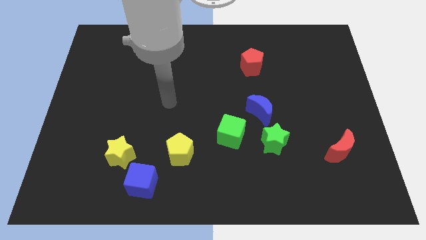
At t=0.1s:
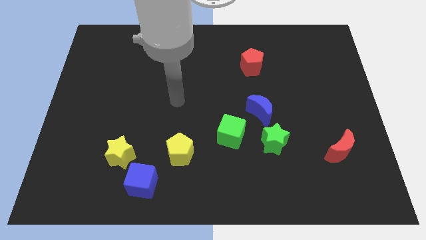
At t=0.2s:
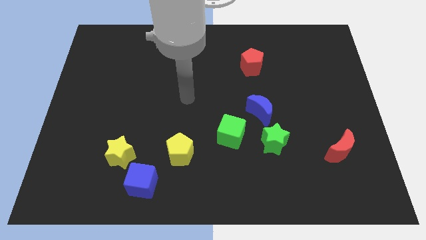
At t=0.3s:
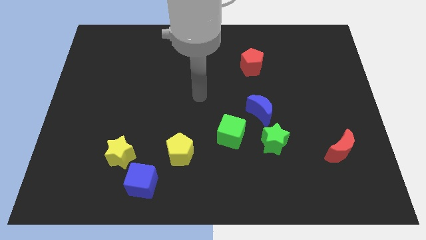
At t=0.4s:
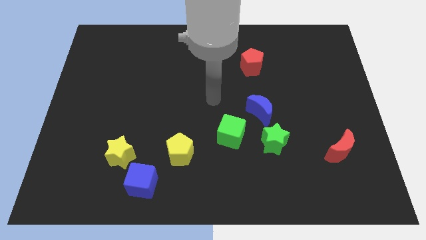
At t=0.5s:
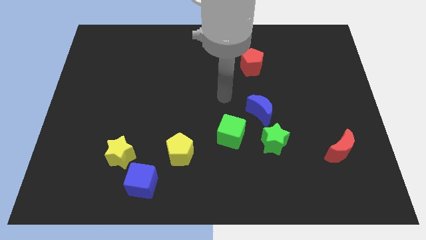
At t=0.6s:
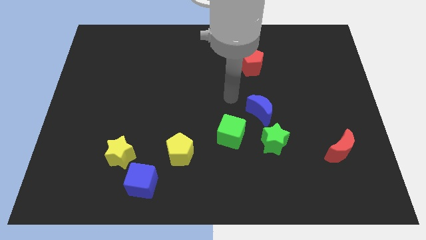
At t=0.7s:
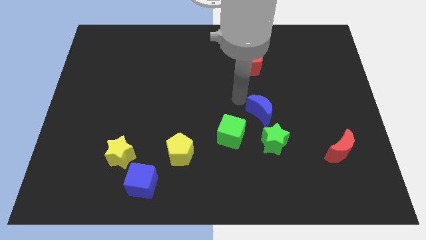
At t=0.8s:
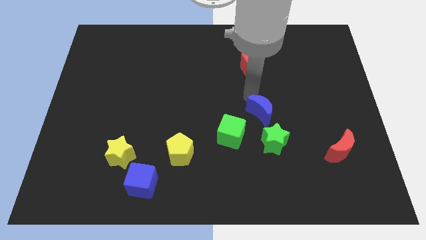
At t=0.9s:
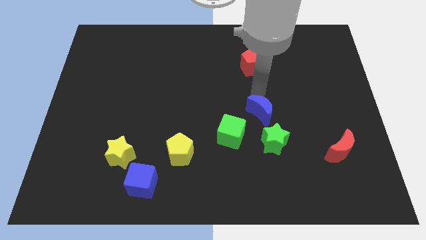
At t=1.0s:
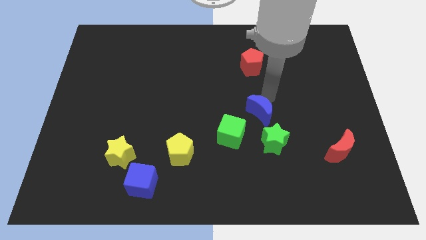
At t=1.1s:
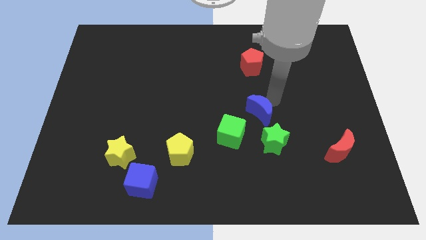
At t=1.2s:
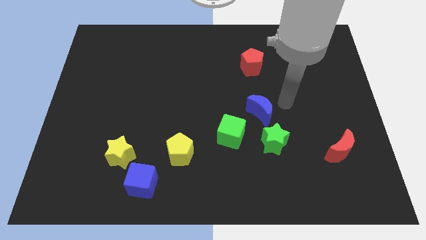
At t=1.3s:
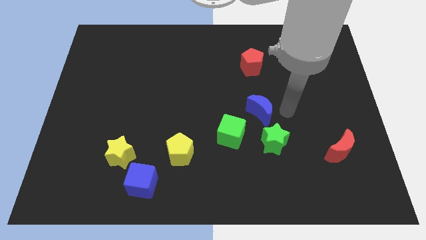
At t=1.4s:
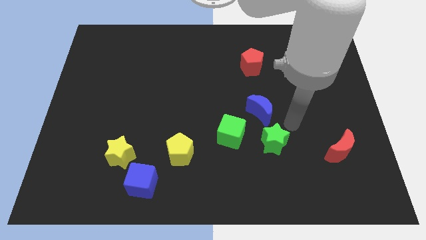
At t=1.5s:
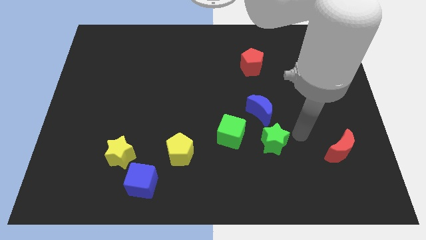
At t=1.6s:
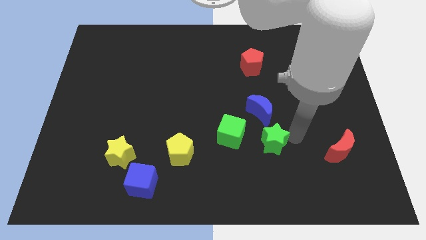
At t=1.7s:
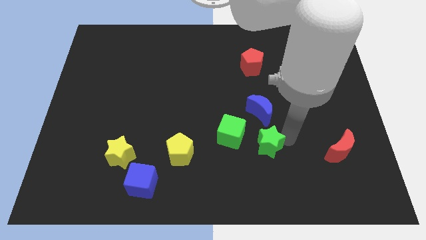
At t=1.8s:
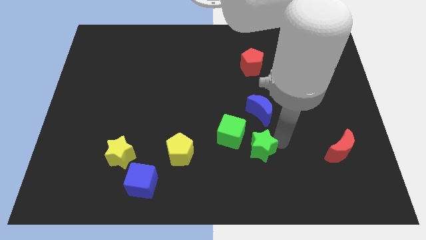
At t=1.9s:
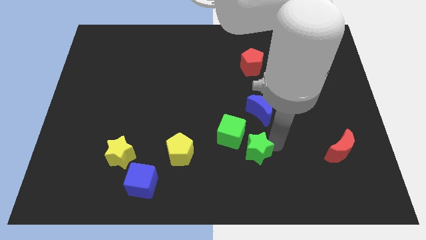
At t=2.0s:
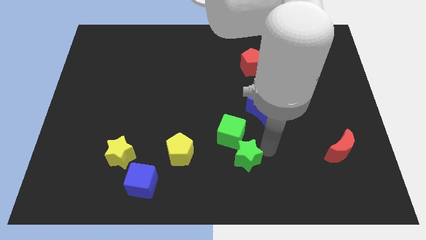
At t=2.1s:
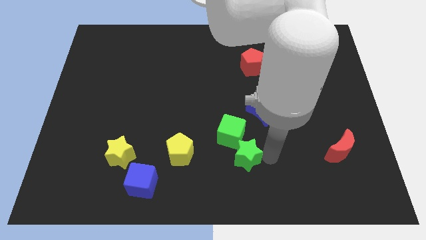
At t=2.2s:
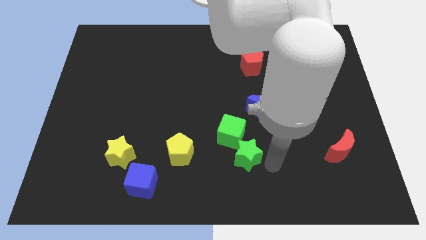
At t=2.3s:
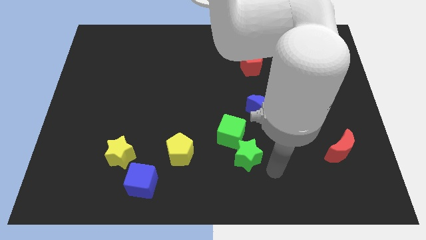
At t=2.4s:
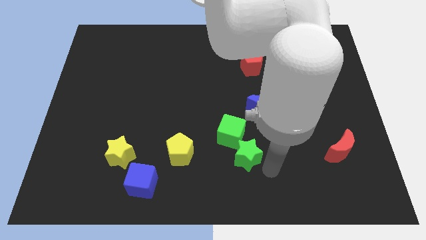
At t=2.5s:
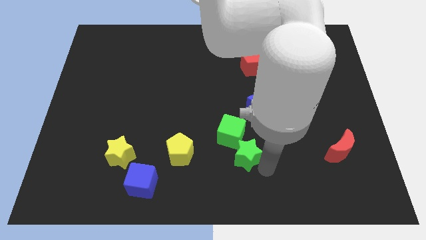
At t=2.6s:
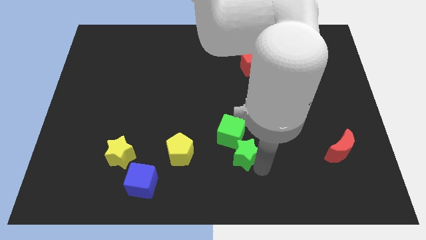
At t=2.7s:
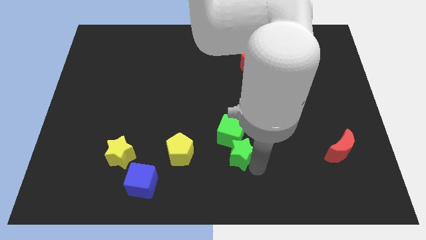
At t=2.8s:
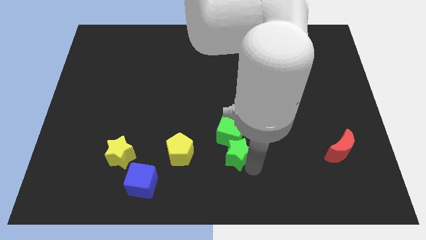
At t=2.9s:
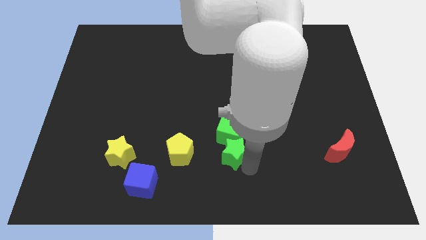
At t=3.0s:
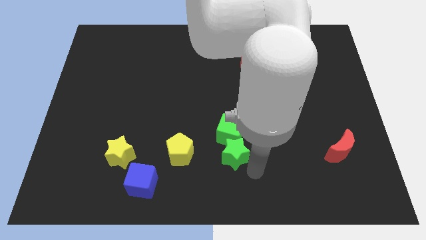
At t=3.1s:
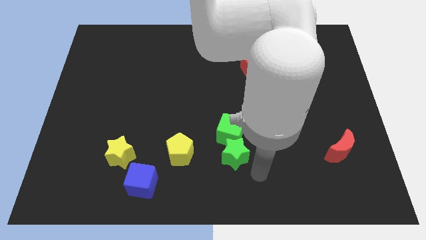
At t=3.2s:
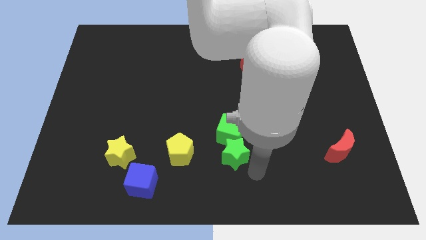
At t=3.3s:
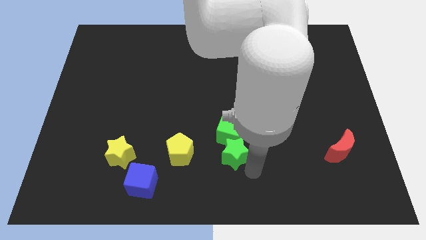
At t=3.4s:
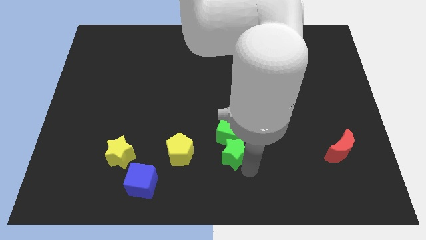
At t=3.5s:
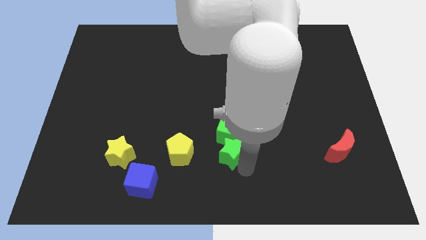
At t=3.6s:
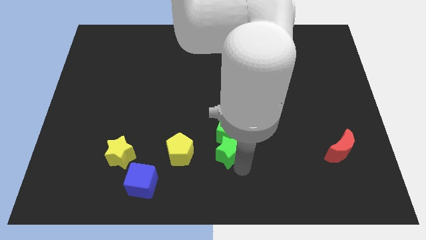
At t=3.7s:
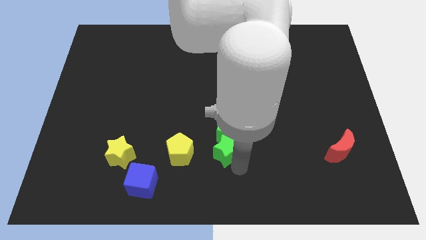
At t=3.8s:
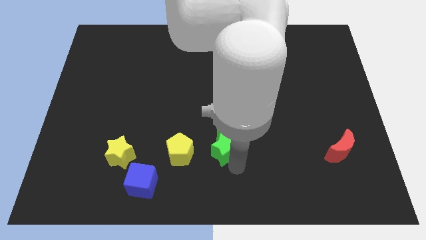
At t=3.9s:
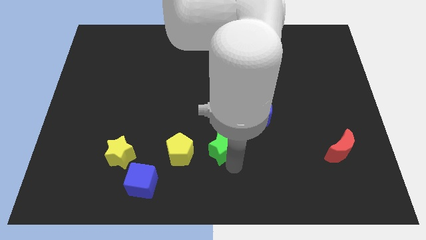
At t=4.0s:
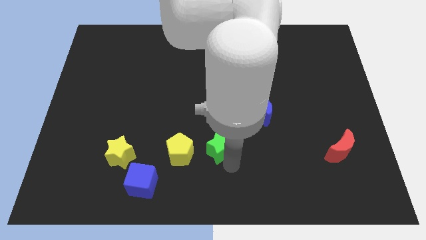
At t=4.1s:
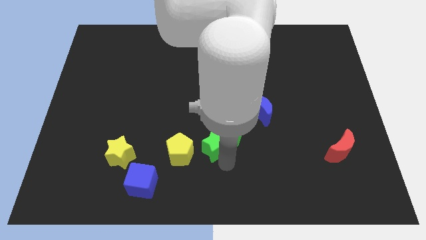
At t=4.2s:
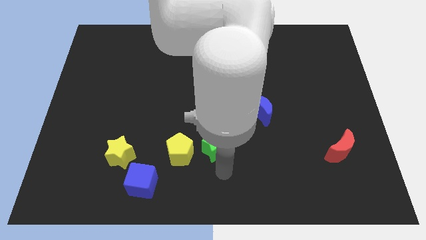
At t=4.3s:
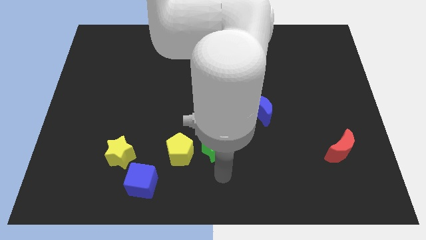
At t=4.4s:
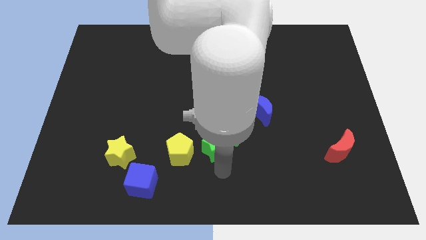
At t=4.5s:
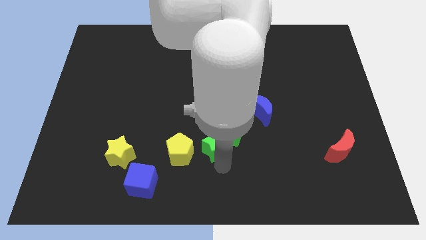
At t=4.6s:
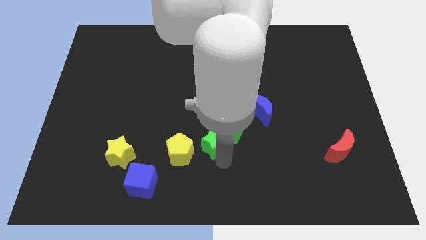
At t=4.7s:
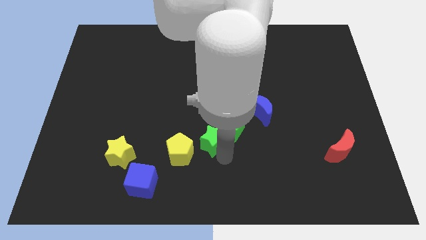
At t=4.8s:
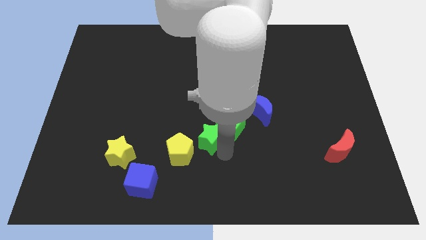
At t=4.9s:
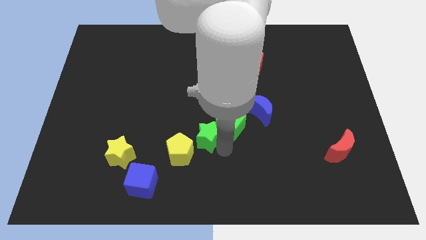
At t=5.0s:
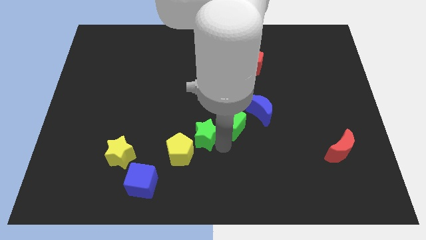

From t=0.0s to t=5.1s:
slide the green star upwards and left diagonally a little

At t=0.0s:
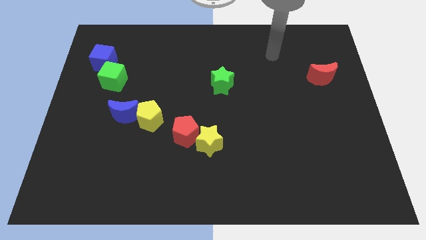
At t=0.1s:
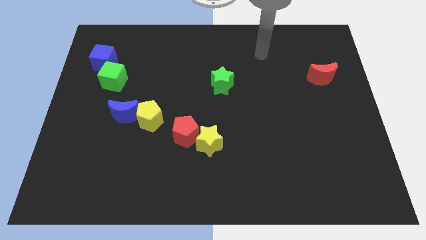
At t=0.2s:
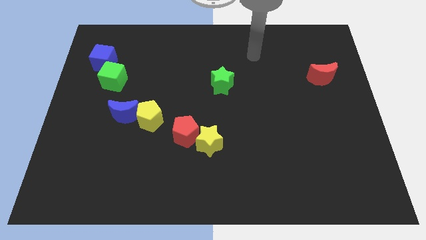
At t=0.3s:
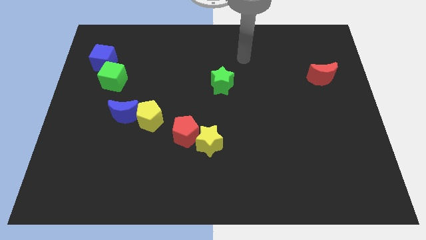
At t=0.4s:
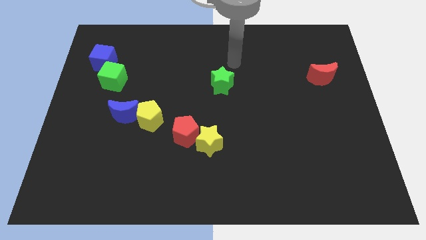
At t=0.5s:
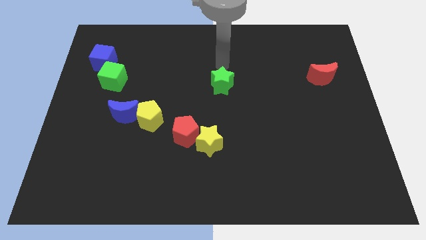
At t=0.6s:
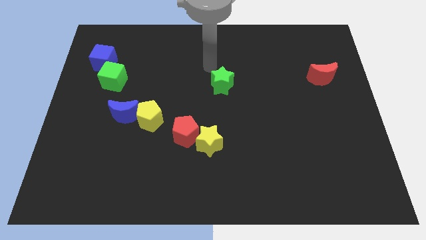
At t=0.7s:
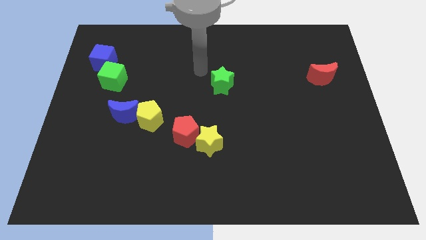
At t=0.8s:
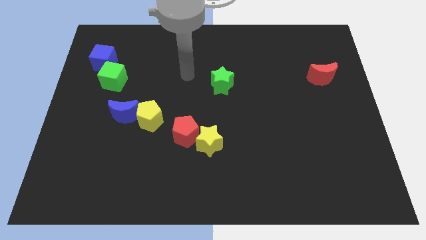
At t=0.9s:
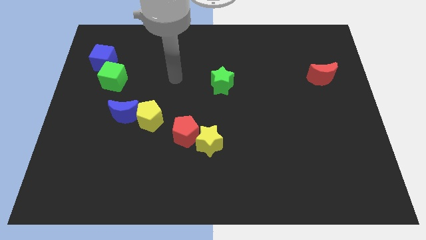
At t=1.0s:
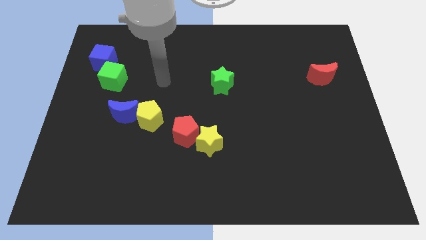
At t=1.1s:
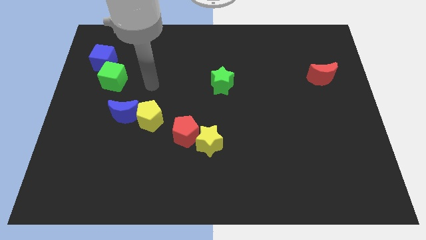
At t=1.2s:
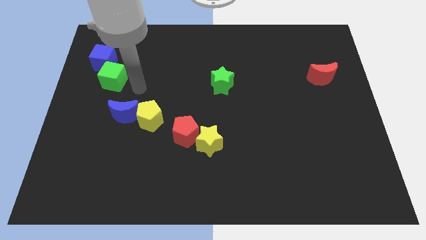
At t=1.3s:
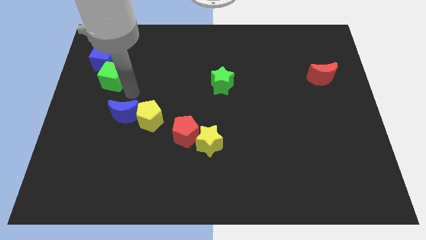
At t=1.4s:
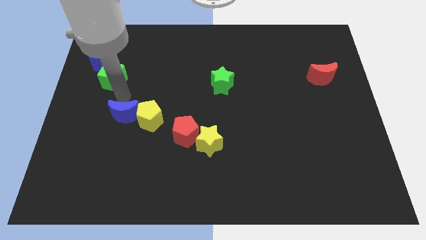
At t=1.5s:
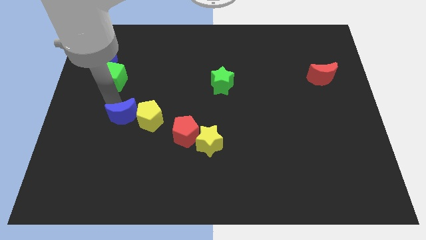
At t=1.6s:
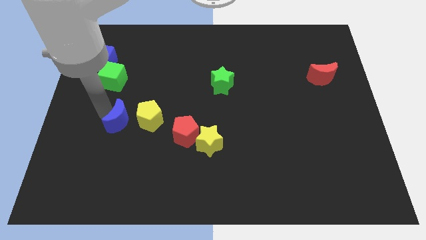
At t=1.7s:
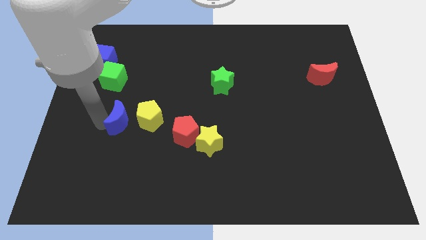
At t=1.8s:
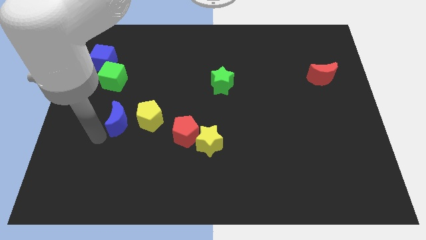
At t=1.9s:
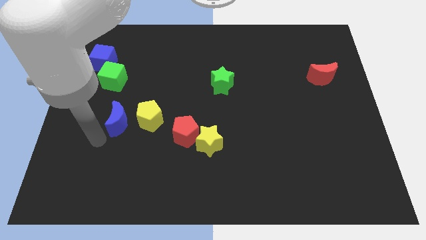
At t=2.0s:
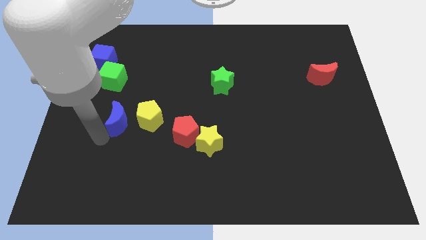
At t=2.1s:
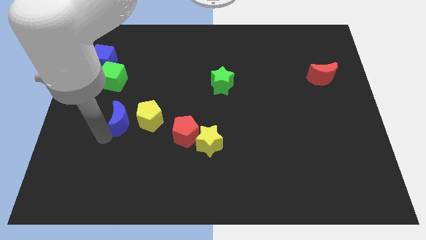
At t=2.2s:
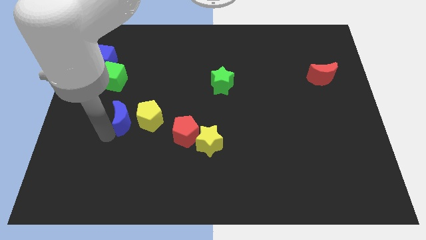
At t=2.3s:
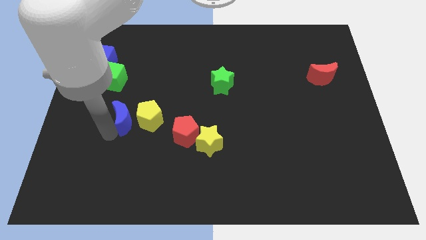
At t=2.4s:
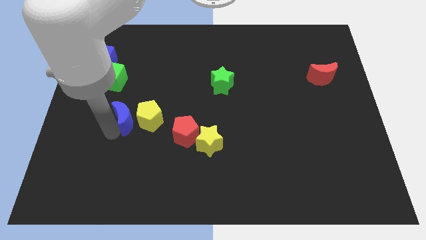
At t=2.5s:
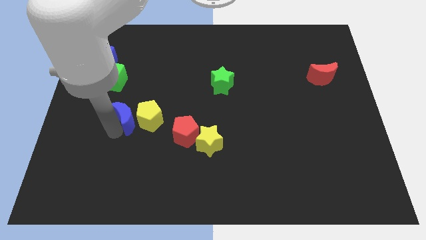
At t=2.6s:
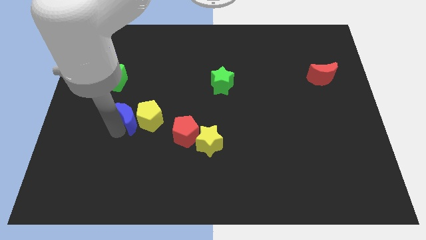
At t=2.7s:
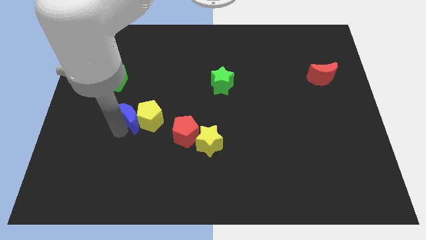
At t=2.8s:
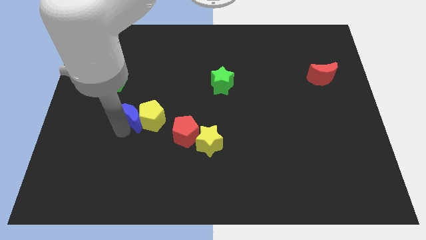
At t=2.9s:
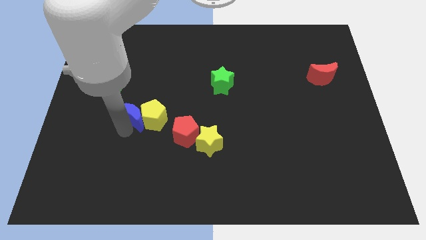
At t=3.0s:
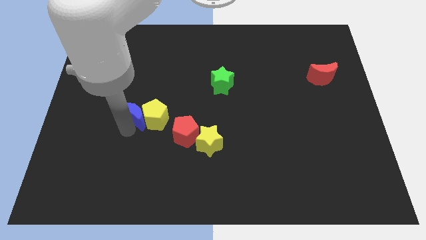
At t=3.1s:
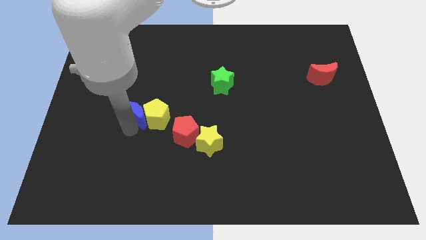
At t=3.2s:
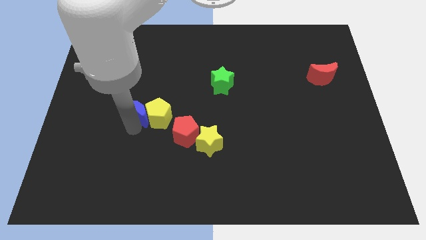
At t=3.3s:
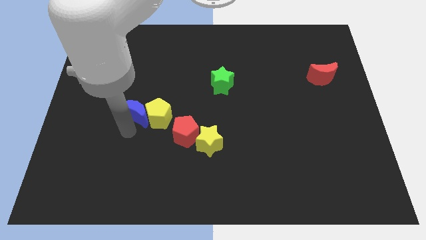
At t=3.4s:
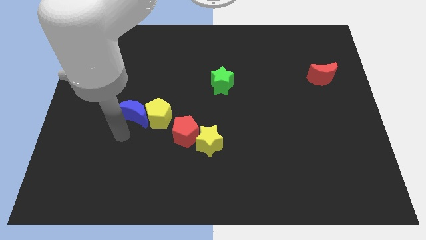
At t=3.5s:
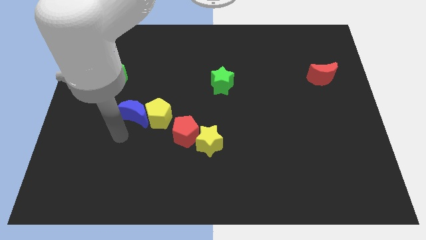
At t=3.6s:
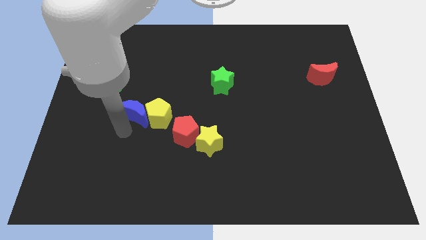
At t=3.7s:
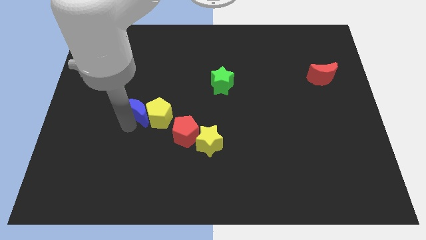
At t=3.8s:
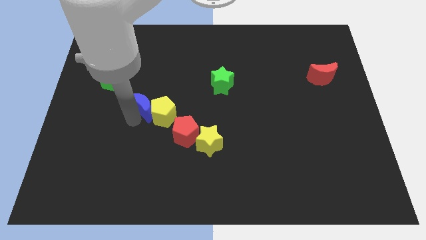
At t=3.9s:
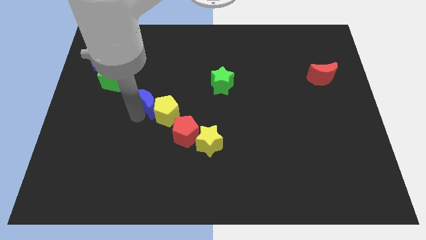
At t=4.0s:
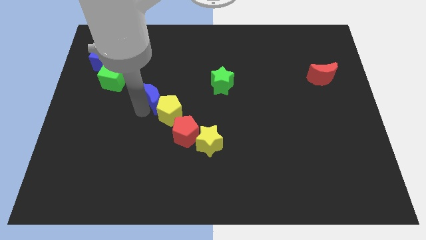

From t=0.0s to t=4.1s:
move the blue moon a little upwards and then right
